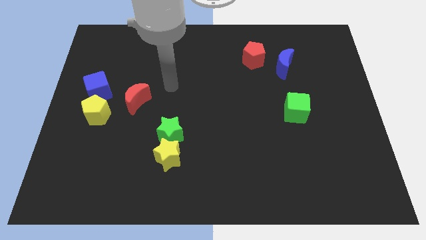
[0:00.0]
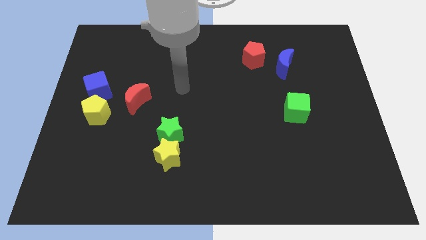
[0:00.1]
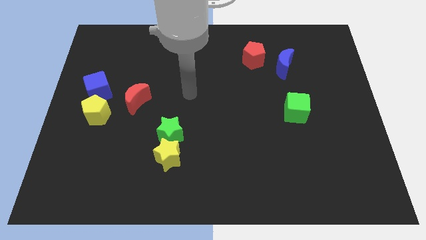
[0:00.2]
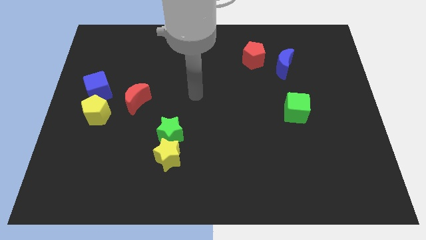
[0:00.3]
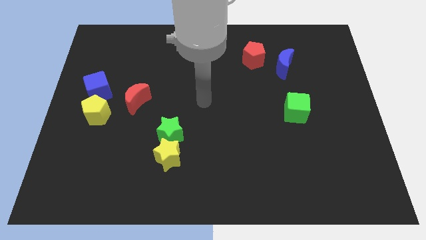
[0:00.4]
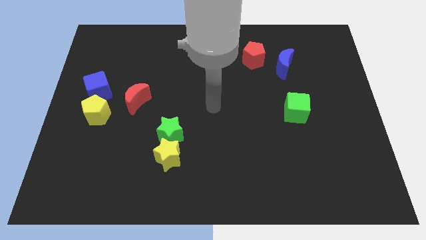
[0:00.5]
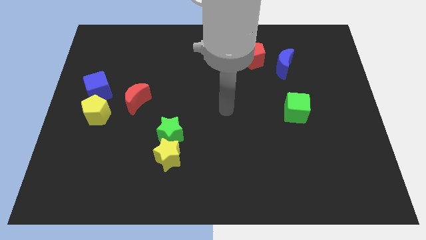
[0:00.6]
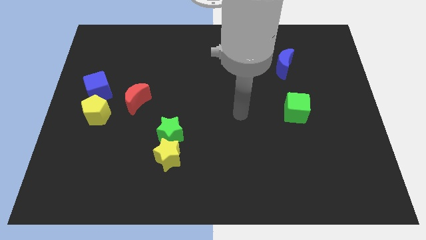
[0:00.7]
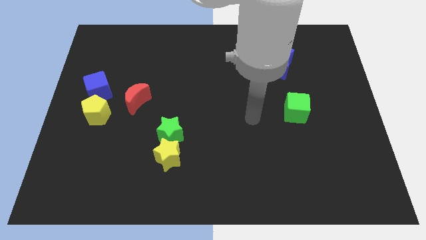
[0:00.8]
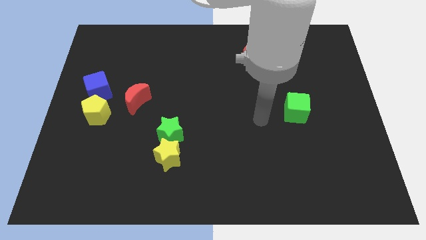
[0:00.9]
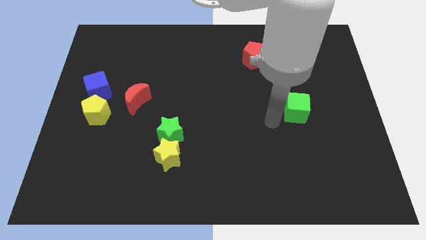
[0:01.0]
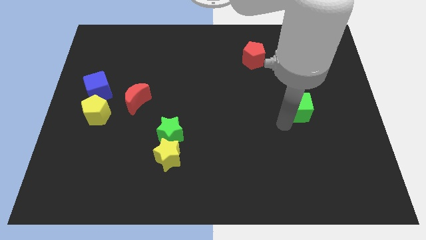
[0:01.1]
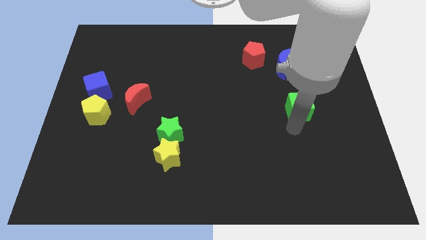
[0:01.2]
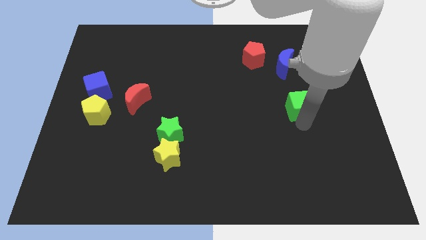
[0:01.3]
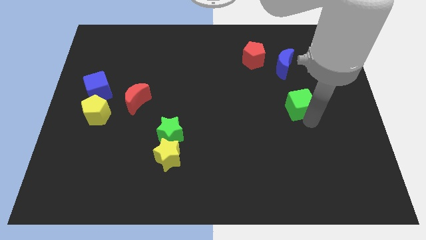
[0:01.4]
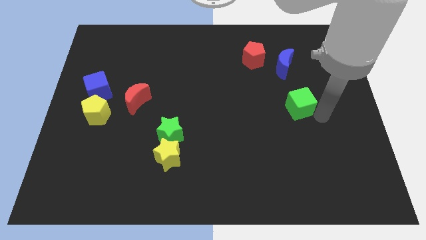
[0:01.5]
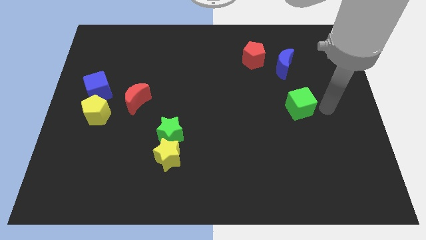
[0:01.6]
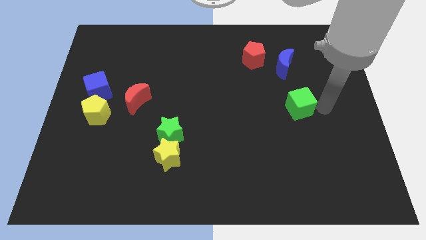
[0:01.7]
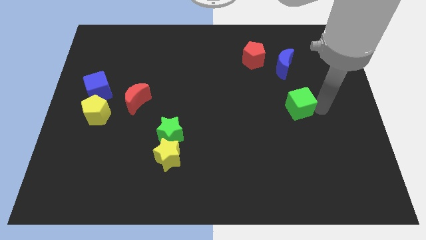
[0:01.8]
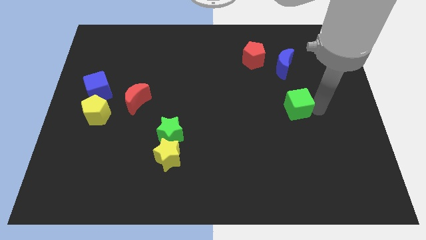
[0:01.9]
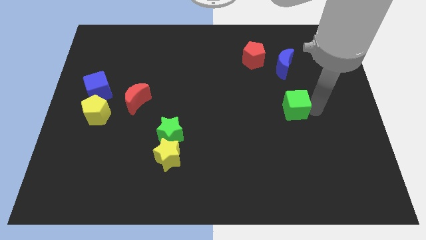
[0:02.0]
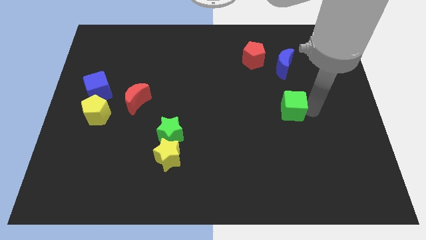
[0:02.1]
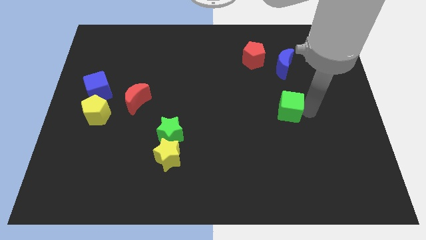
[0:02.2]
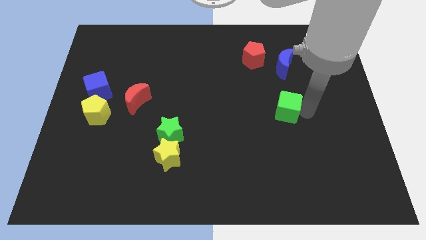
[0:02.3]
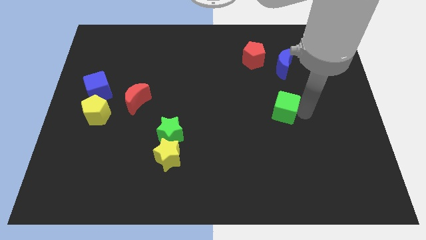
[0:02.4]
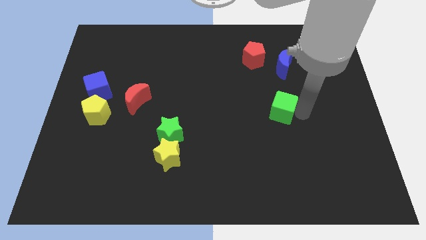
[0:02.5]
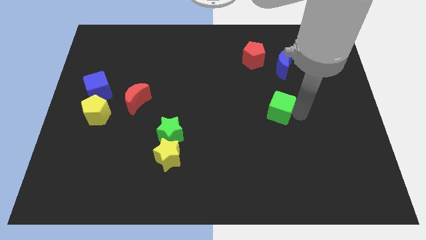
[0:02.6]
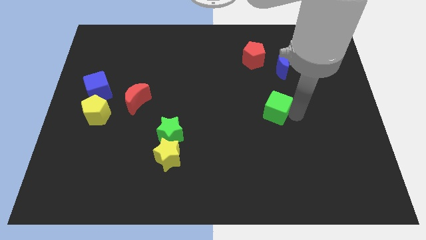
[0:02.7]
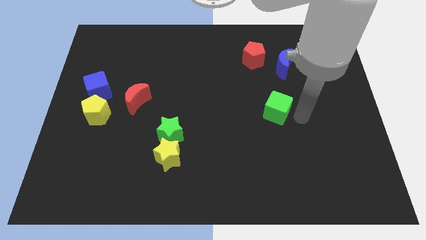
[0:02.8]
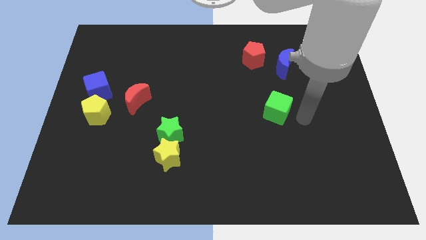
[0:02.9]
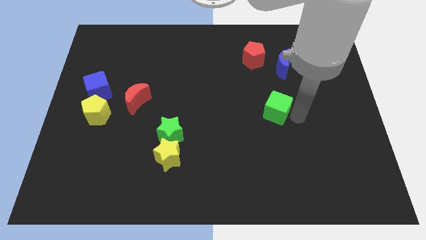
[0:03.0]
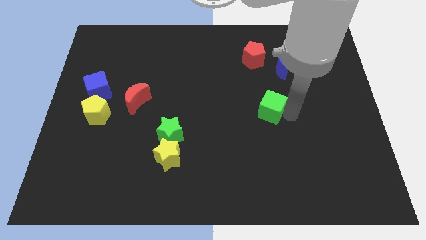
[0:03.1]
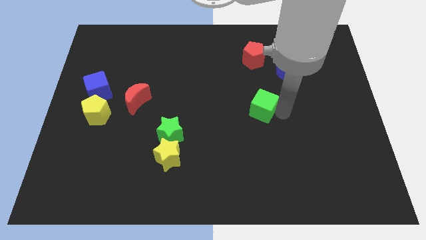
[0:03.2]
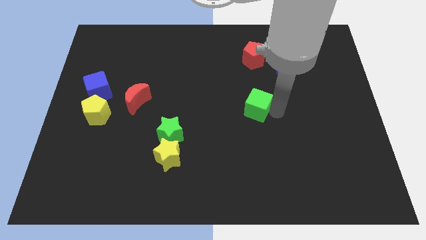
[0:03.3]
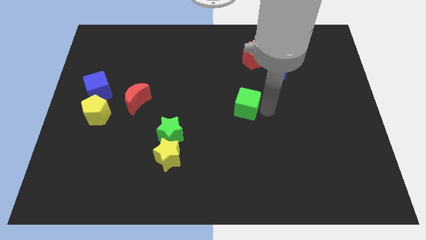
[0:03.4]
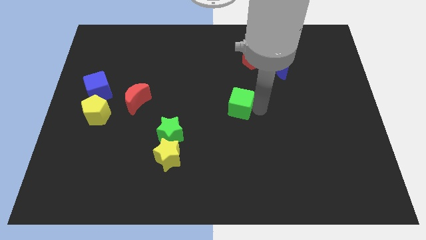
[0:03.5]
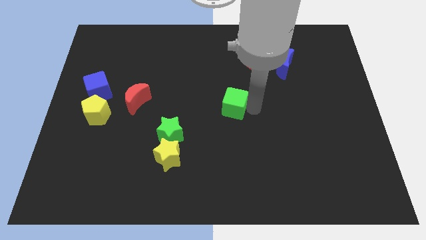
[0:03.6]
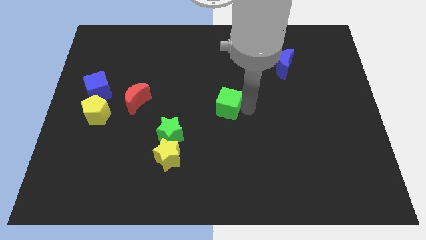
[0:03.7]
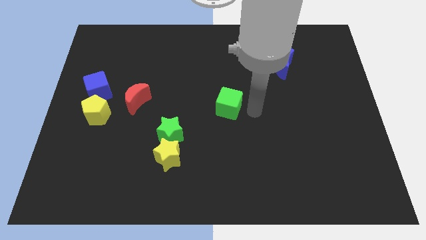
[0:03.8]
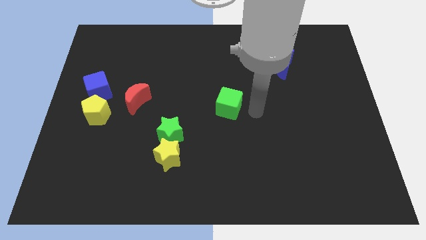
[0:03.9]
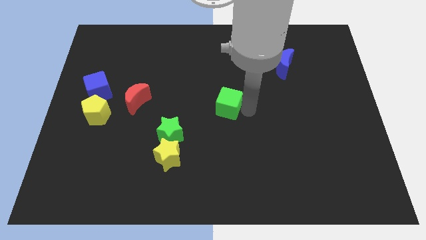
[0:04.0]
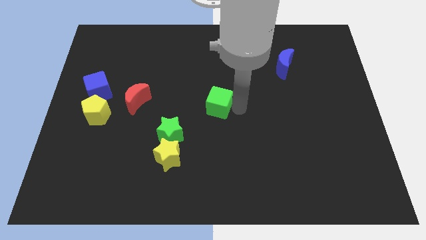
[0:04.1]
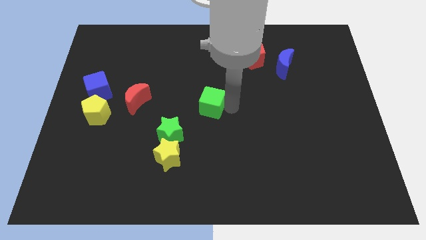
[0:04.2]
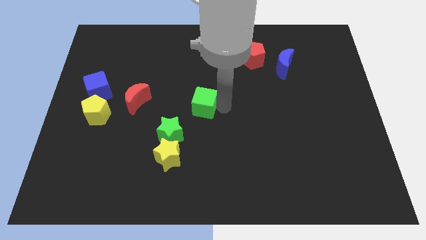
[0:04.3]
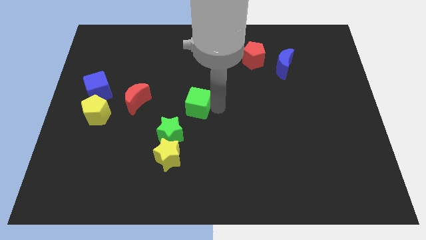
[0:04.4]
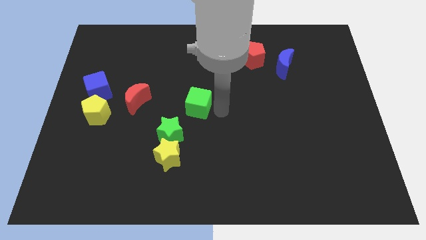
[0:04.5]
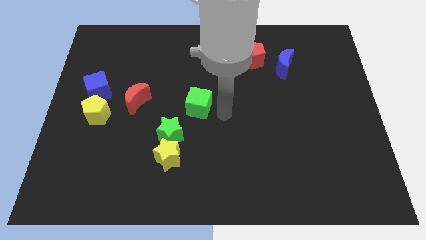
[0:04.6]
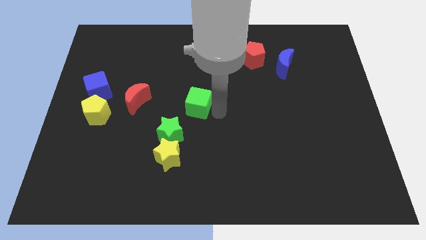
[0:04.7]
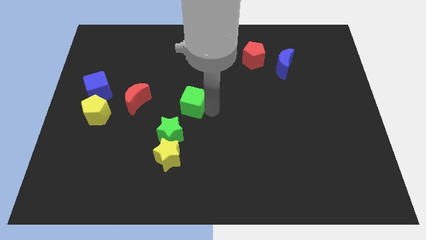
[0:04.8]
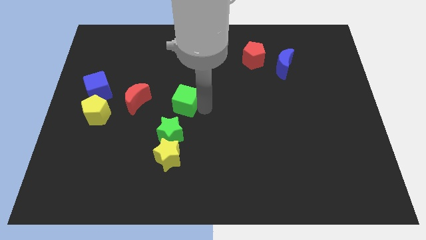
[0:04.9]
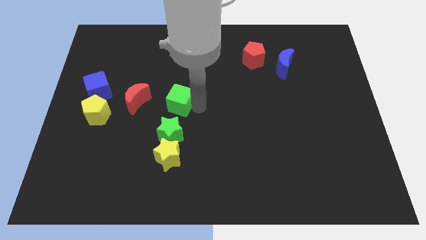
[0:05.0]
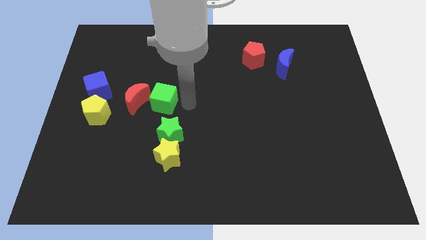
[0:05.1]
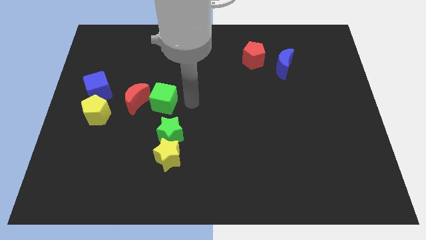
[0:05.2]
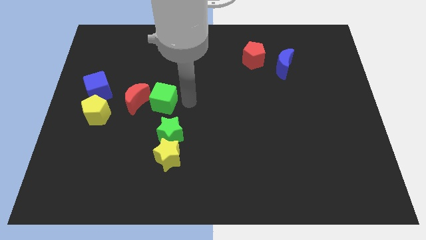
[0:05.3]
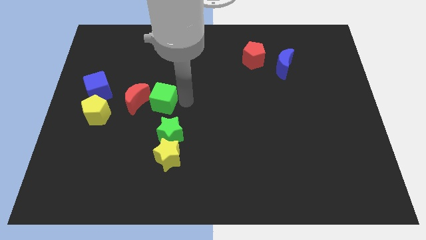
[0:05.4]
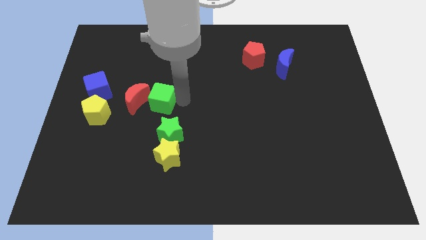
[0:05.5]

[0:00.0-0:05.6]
push the green cube to the red moon

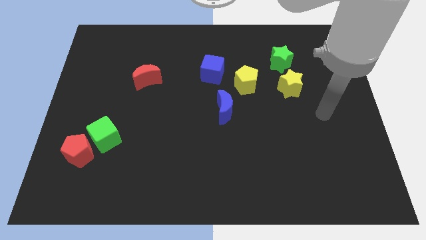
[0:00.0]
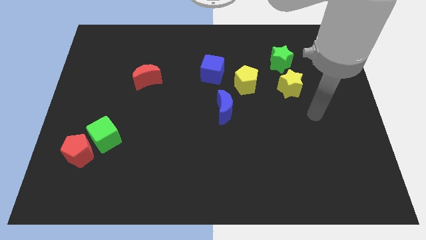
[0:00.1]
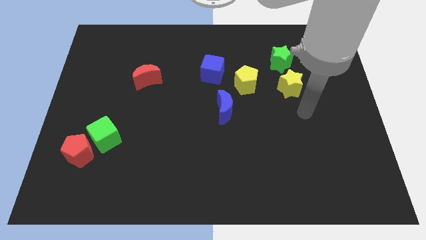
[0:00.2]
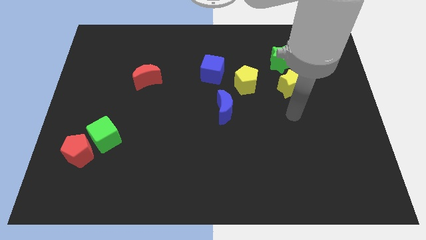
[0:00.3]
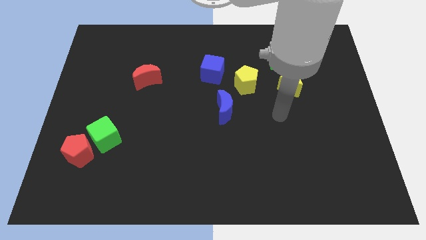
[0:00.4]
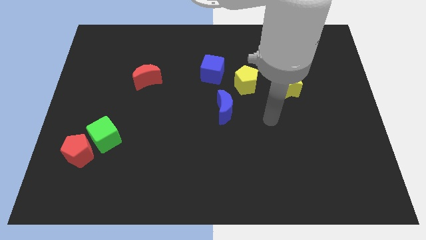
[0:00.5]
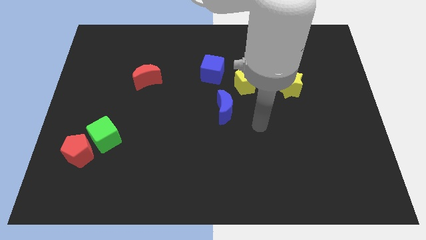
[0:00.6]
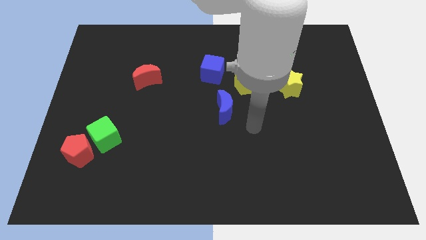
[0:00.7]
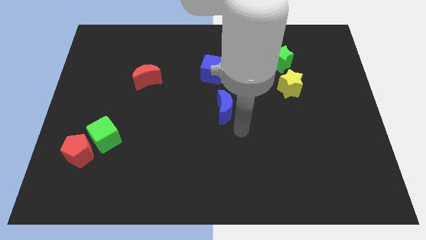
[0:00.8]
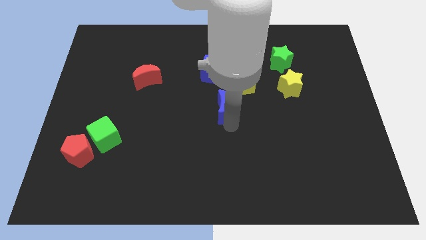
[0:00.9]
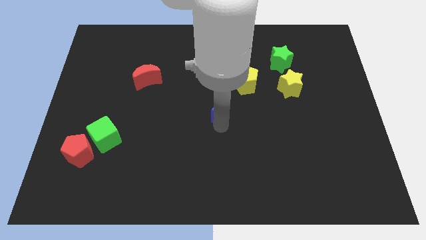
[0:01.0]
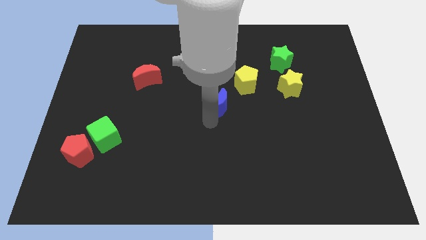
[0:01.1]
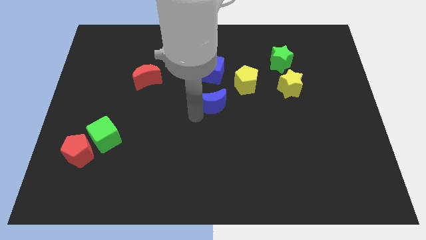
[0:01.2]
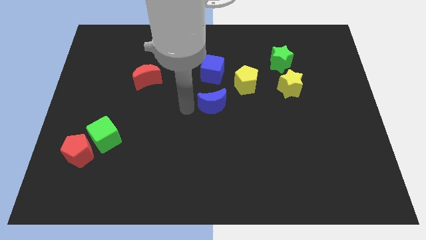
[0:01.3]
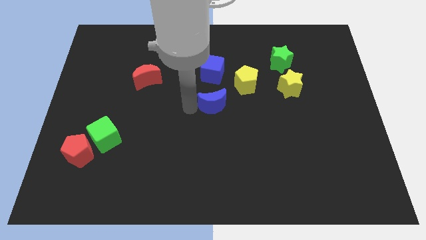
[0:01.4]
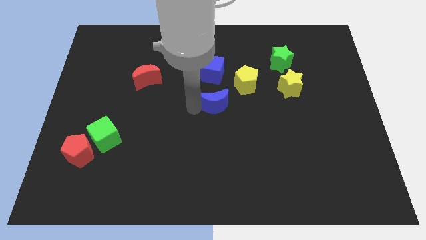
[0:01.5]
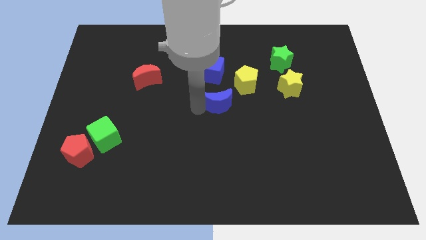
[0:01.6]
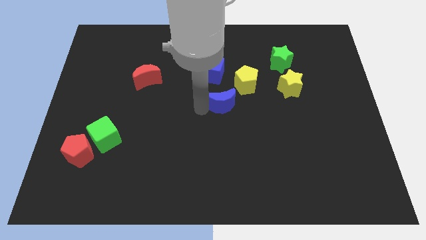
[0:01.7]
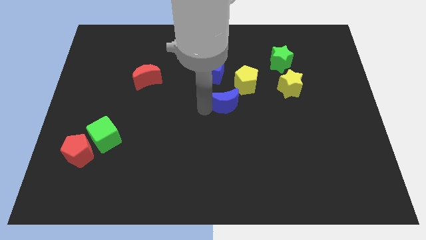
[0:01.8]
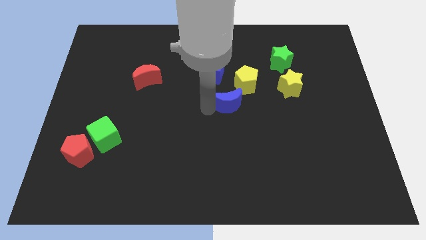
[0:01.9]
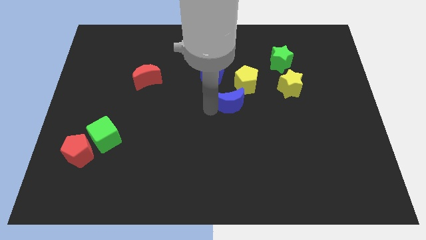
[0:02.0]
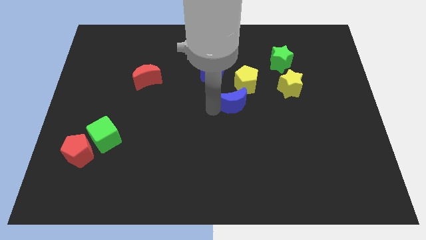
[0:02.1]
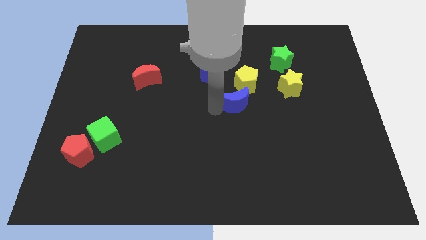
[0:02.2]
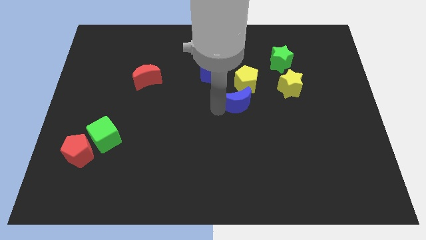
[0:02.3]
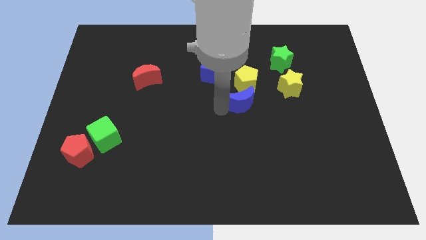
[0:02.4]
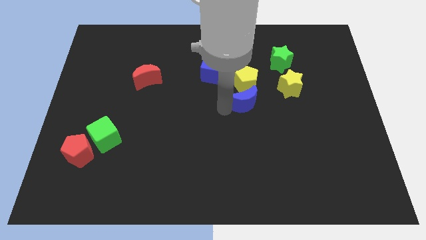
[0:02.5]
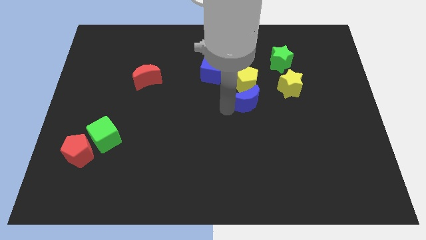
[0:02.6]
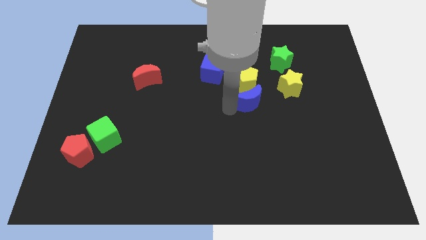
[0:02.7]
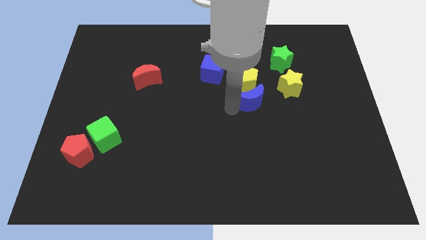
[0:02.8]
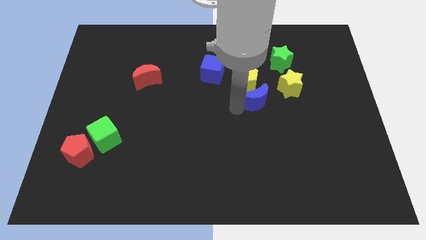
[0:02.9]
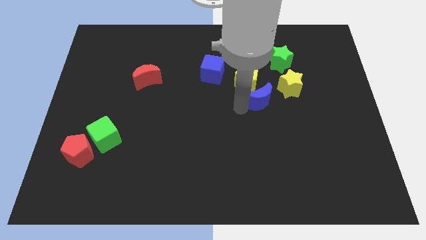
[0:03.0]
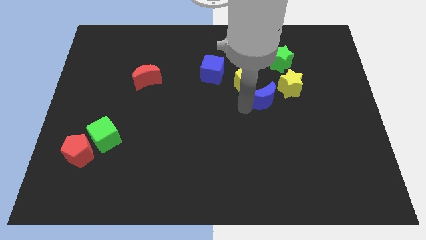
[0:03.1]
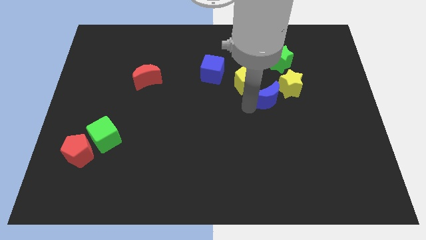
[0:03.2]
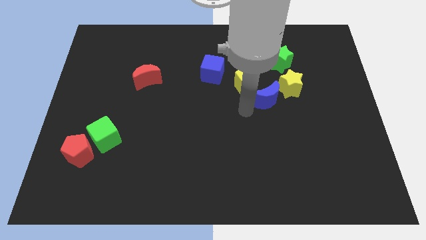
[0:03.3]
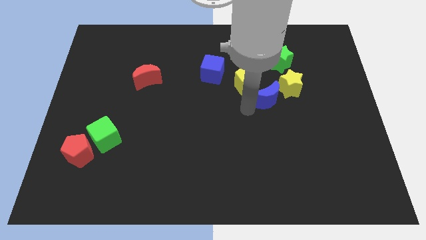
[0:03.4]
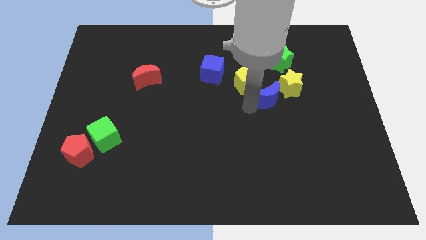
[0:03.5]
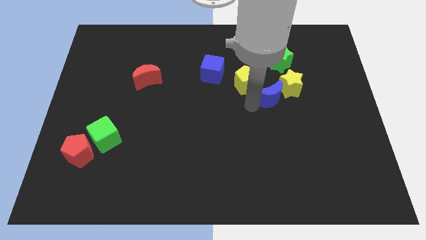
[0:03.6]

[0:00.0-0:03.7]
move the blue moon to the yellow star
